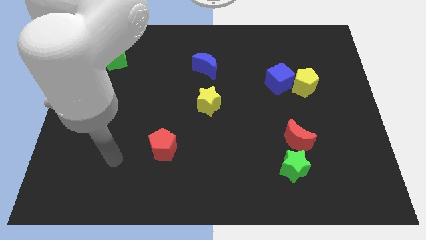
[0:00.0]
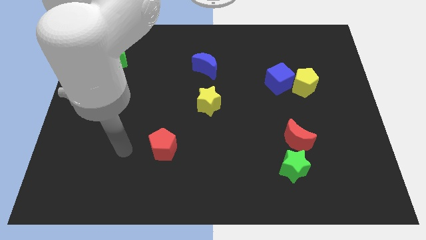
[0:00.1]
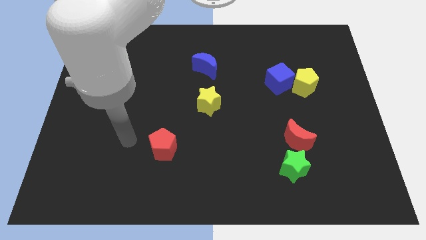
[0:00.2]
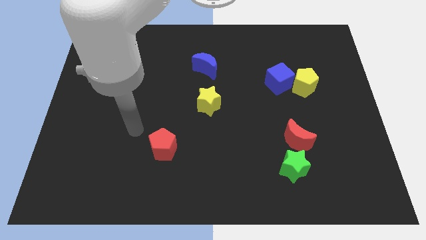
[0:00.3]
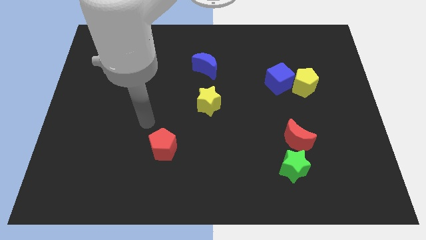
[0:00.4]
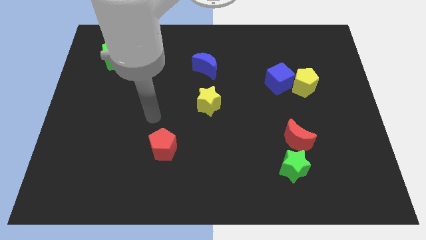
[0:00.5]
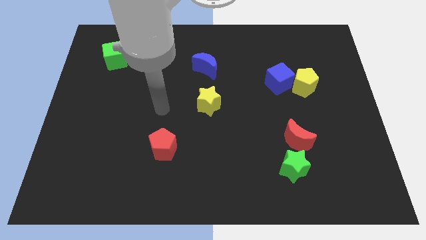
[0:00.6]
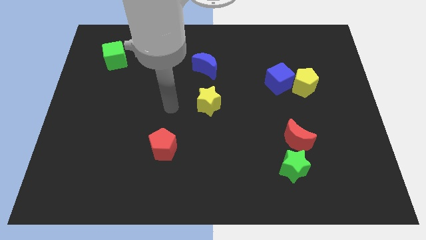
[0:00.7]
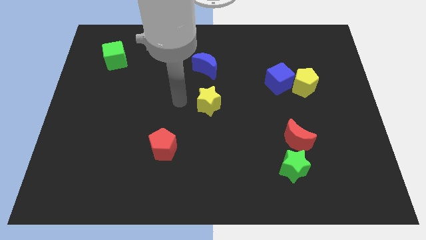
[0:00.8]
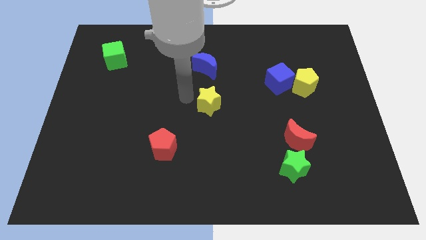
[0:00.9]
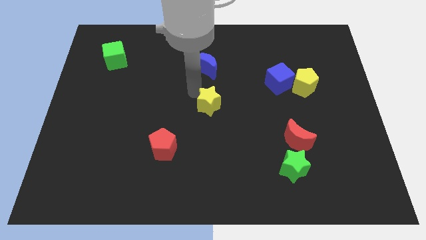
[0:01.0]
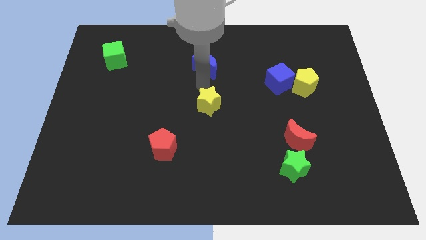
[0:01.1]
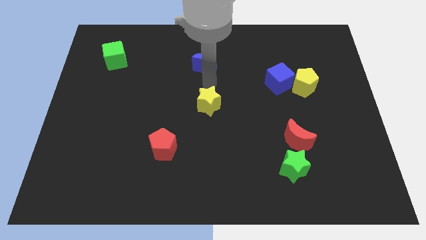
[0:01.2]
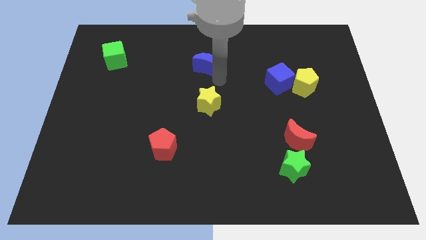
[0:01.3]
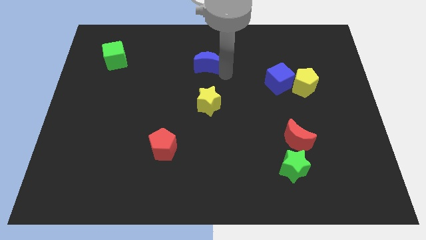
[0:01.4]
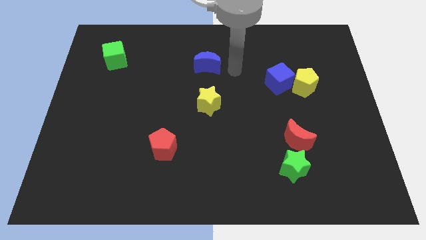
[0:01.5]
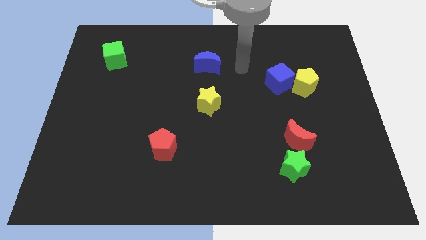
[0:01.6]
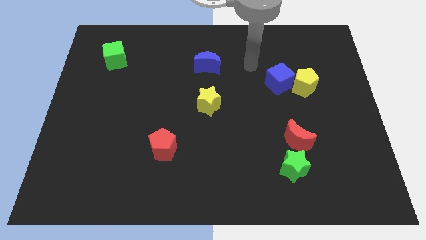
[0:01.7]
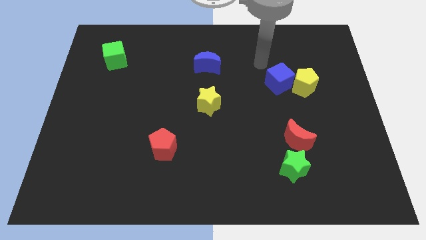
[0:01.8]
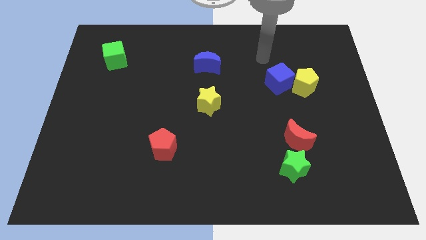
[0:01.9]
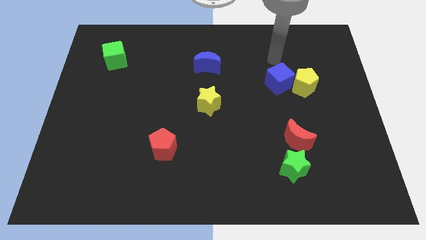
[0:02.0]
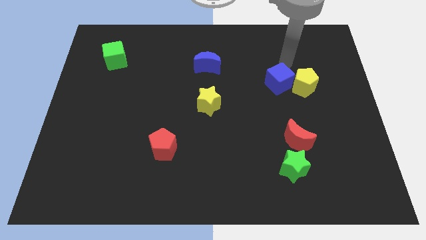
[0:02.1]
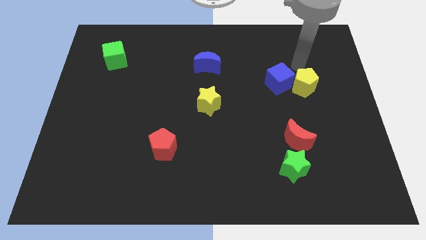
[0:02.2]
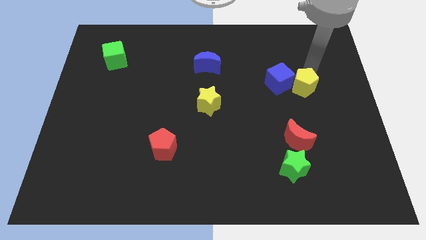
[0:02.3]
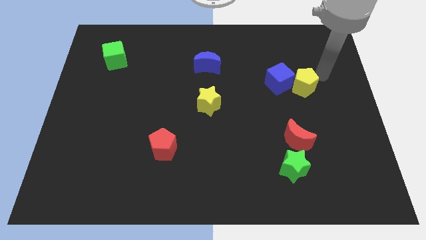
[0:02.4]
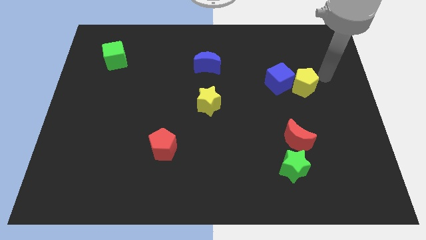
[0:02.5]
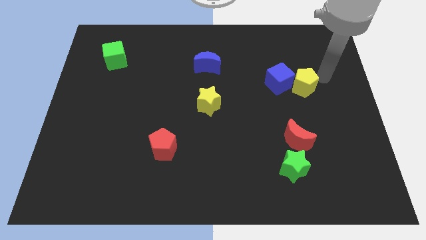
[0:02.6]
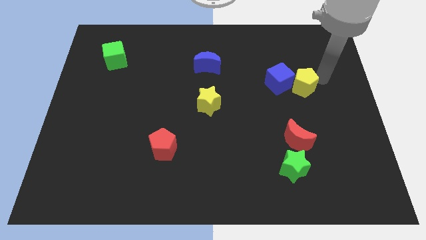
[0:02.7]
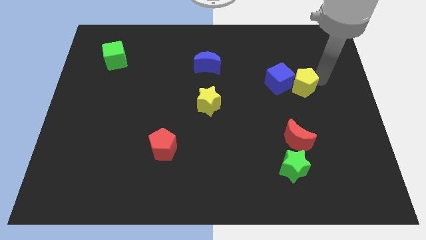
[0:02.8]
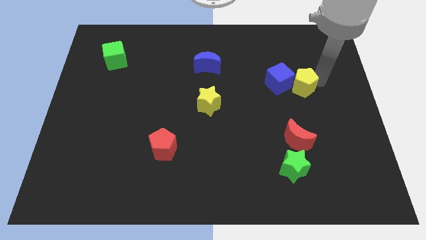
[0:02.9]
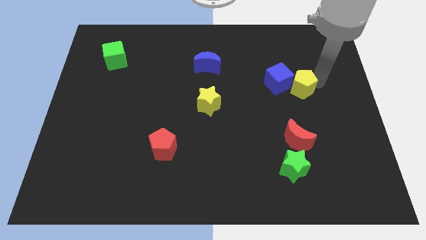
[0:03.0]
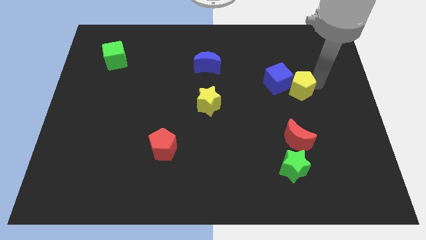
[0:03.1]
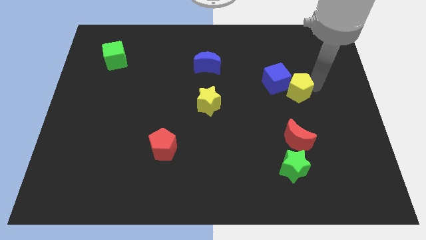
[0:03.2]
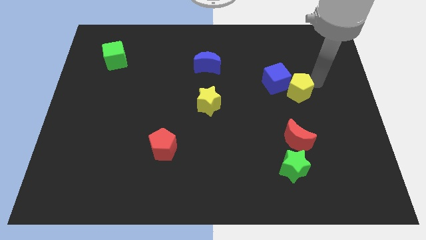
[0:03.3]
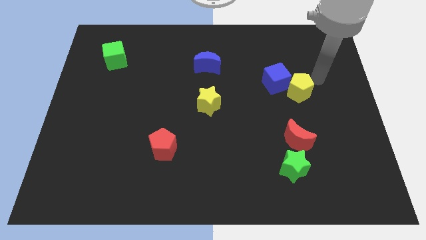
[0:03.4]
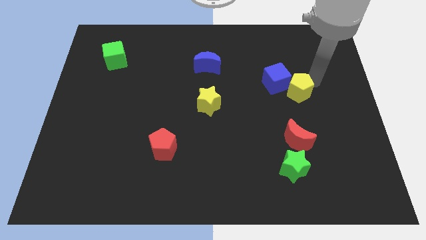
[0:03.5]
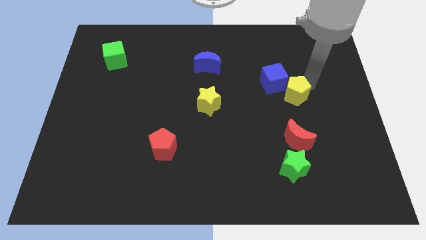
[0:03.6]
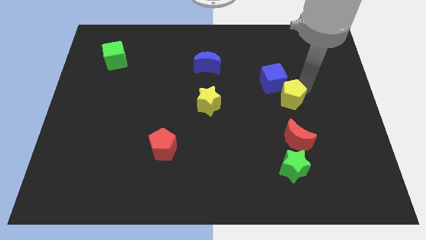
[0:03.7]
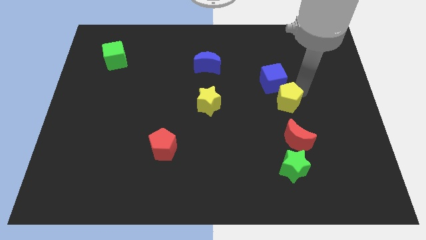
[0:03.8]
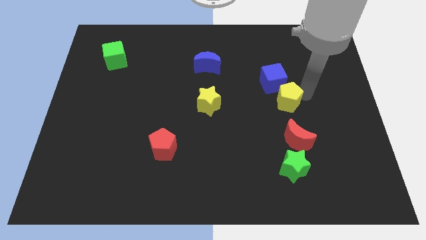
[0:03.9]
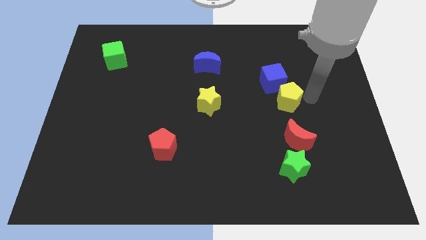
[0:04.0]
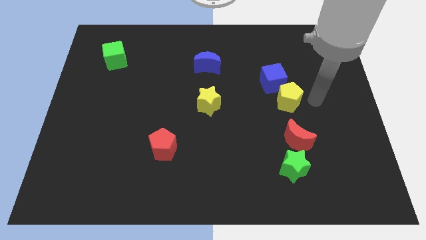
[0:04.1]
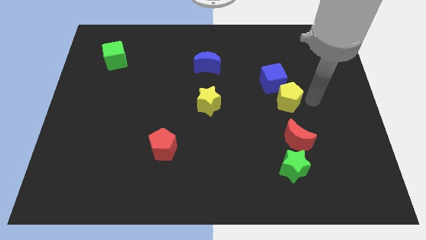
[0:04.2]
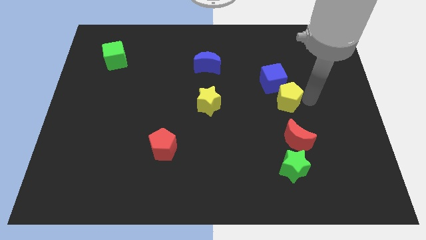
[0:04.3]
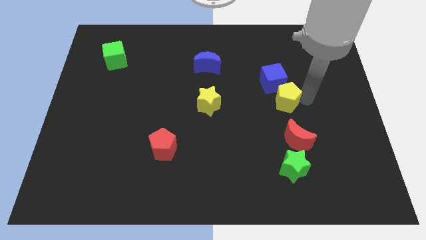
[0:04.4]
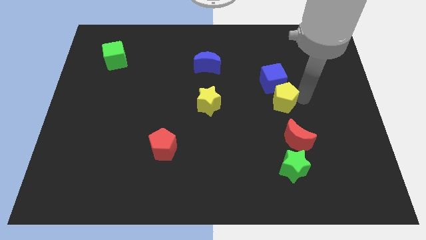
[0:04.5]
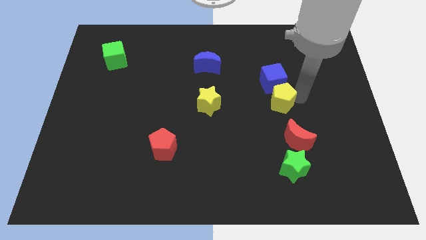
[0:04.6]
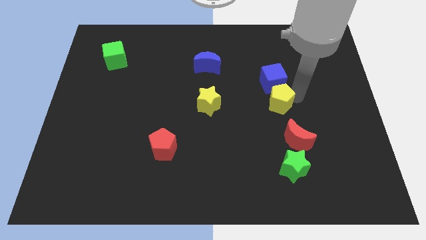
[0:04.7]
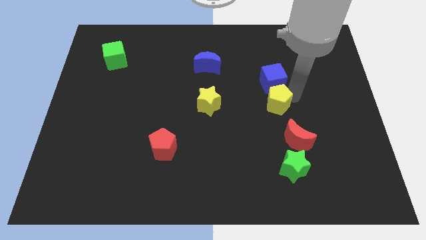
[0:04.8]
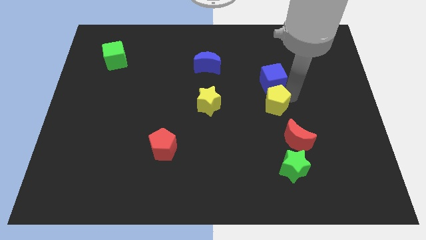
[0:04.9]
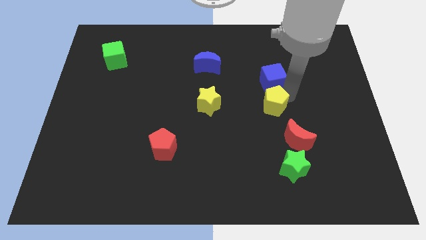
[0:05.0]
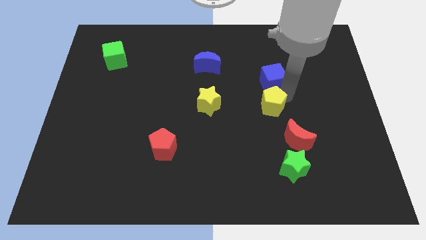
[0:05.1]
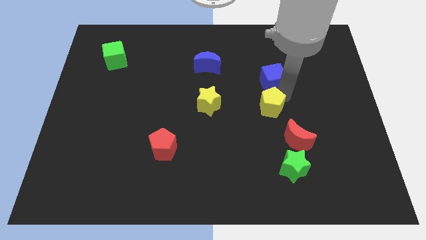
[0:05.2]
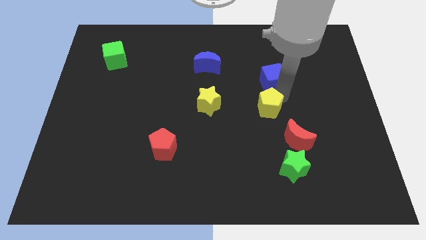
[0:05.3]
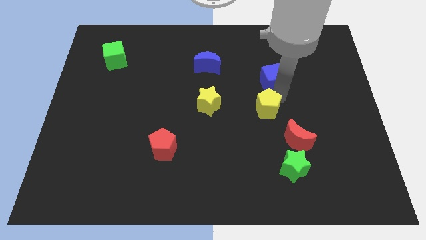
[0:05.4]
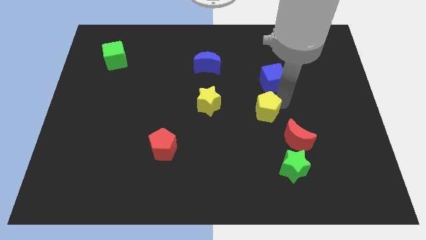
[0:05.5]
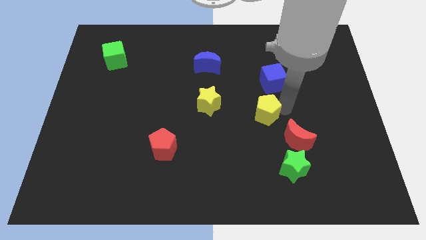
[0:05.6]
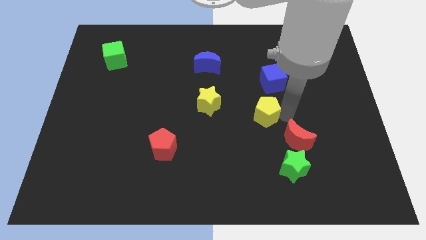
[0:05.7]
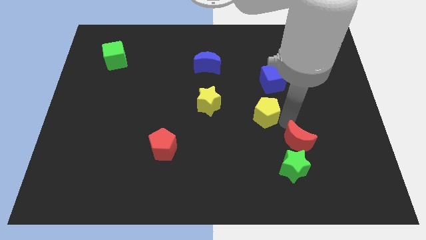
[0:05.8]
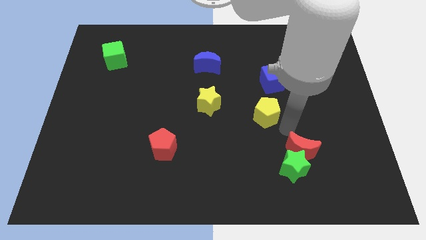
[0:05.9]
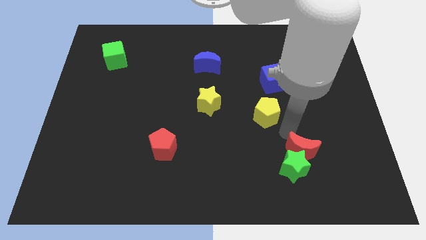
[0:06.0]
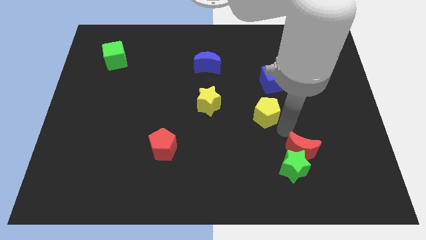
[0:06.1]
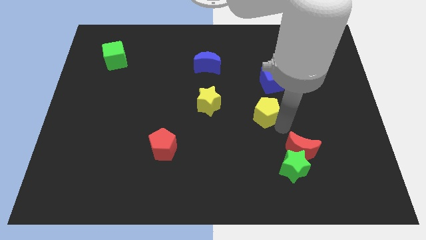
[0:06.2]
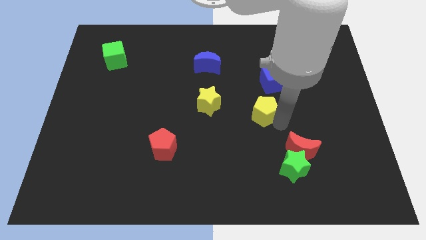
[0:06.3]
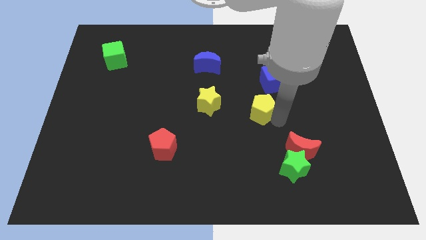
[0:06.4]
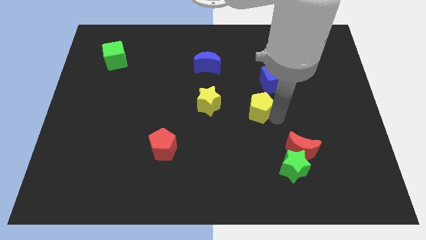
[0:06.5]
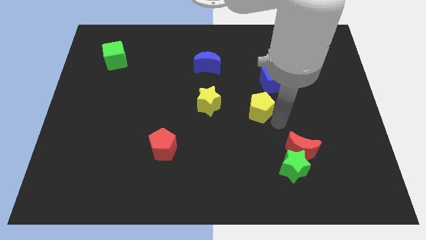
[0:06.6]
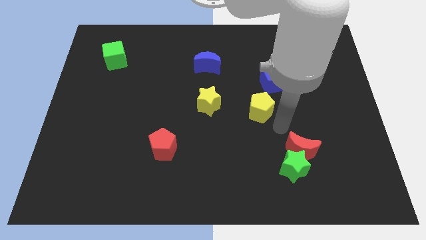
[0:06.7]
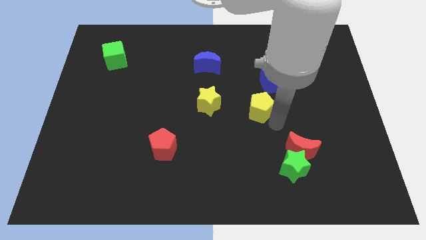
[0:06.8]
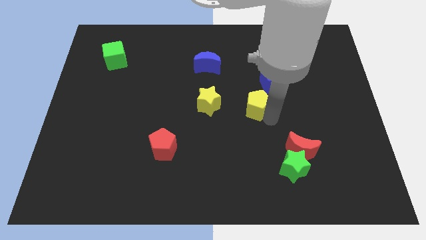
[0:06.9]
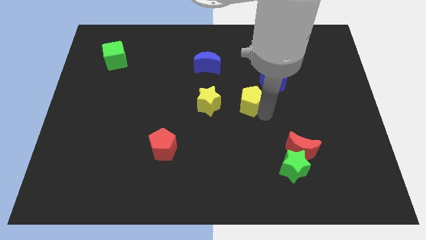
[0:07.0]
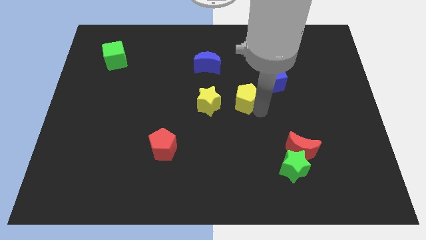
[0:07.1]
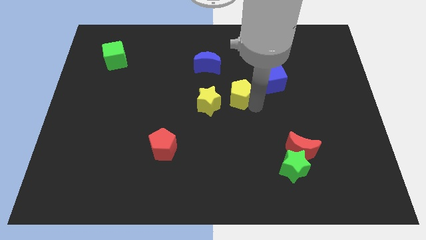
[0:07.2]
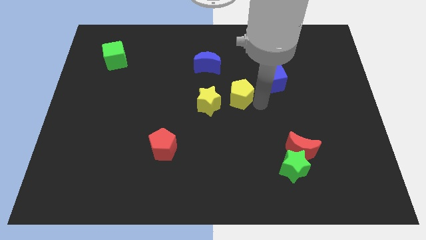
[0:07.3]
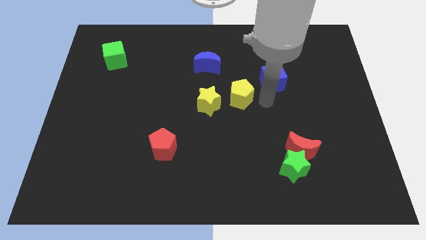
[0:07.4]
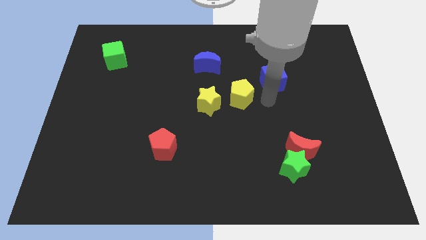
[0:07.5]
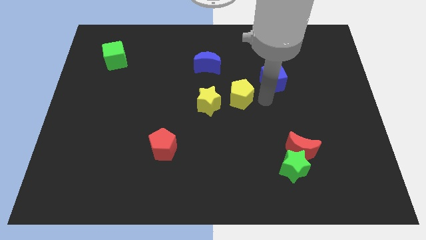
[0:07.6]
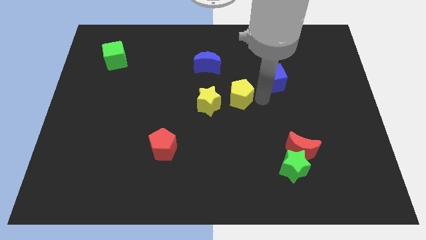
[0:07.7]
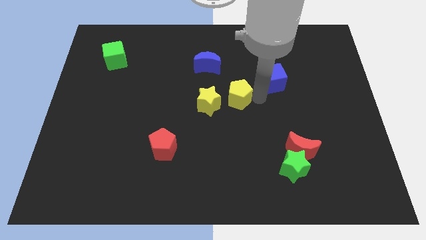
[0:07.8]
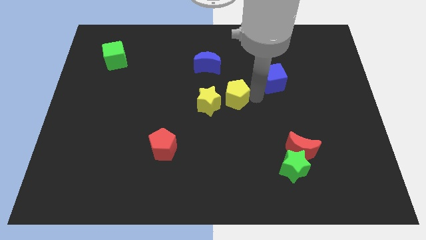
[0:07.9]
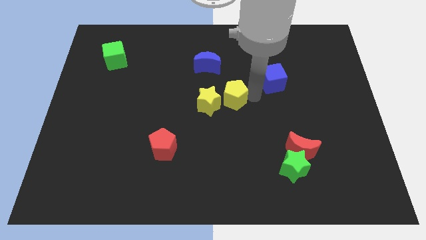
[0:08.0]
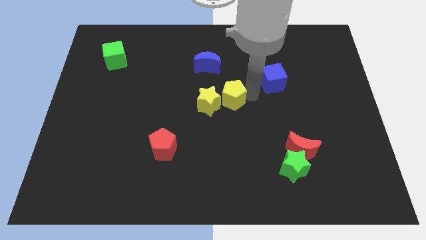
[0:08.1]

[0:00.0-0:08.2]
move the yellow pentagon to the yellow star
